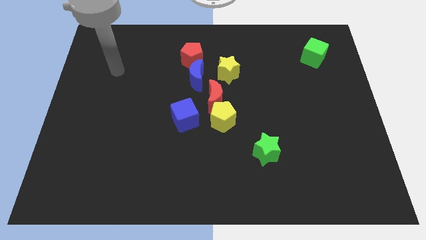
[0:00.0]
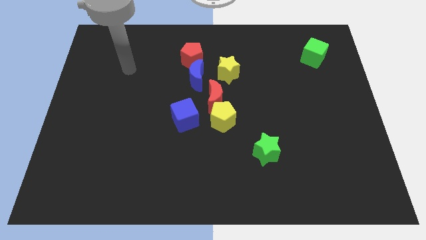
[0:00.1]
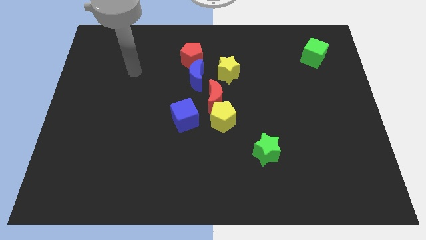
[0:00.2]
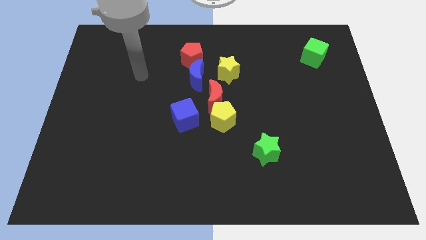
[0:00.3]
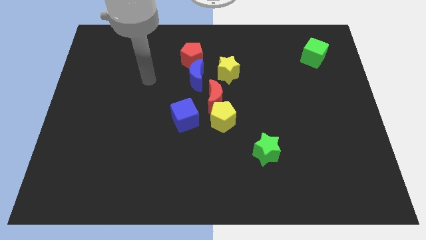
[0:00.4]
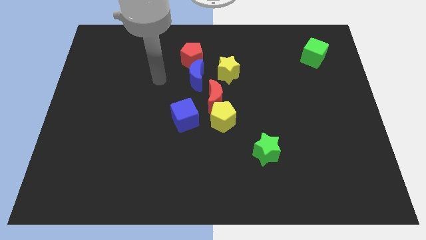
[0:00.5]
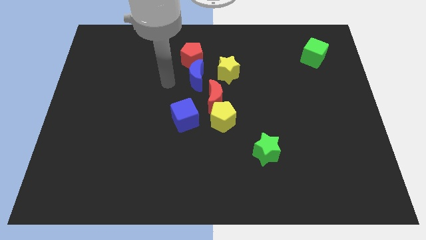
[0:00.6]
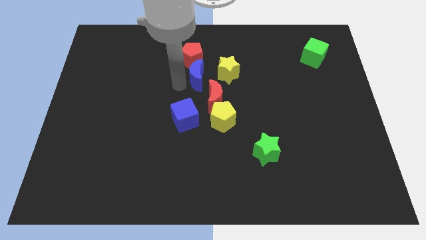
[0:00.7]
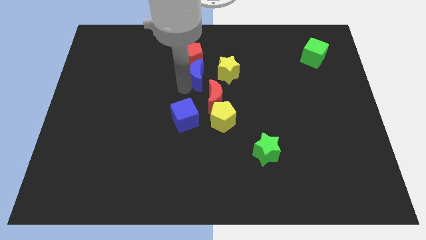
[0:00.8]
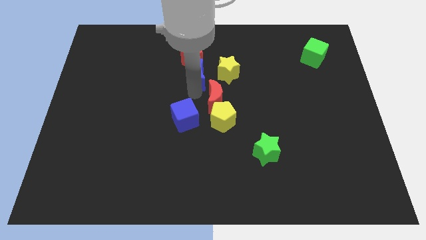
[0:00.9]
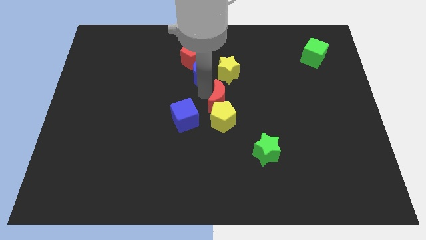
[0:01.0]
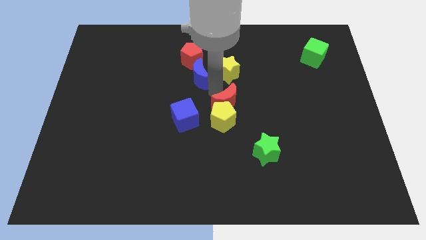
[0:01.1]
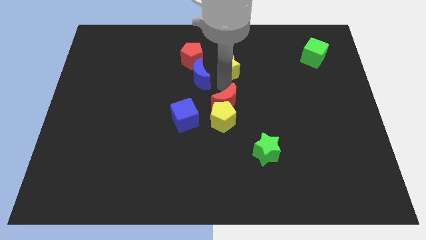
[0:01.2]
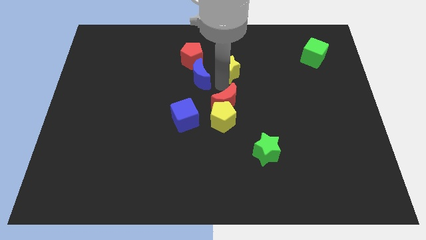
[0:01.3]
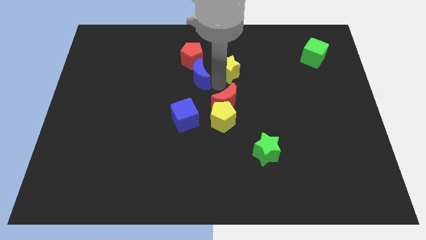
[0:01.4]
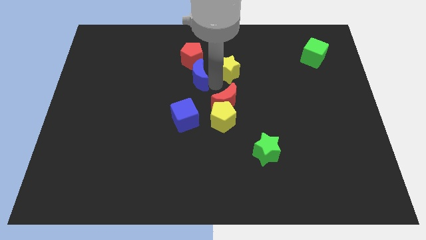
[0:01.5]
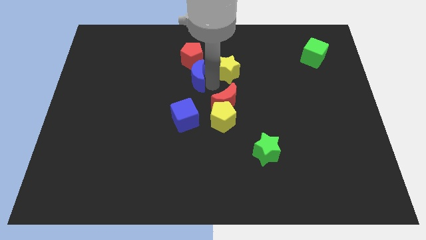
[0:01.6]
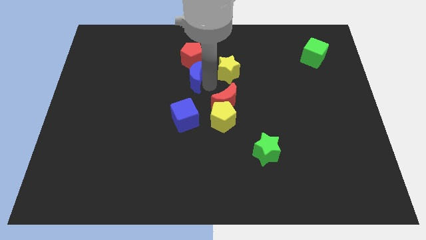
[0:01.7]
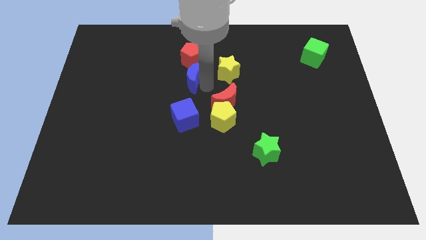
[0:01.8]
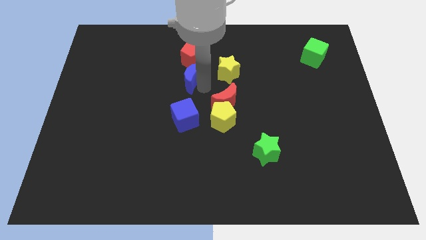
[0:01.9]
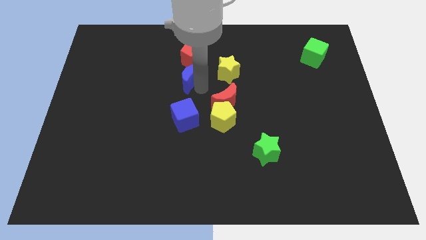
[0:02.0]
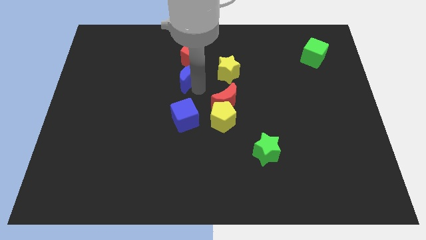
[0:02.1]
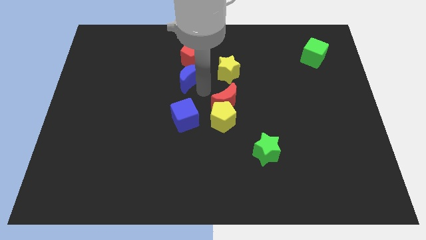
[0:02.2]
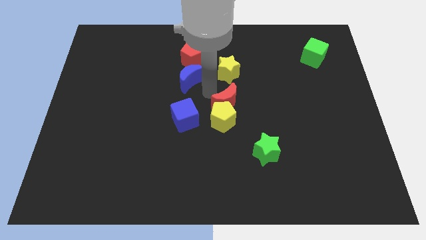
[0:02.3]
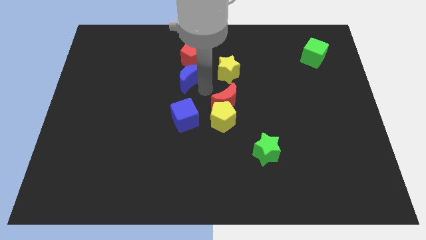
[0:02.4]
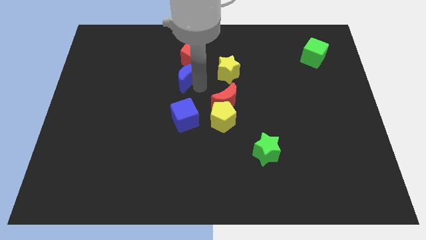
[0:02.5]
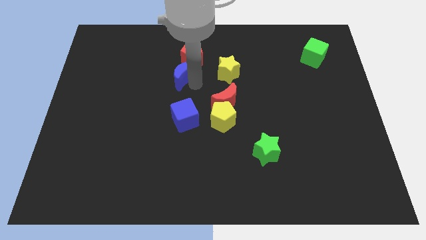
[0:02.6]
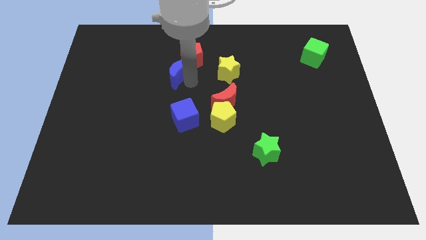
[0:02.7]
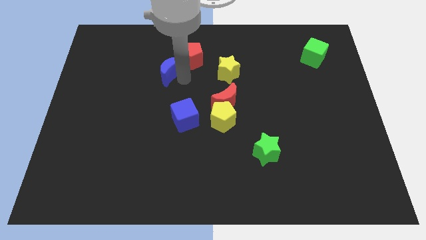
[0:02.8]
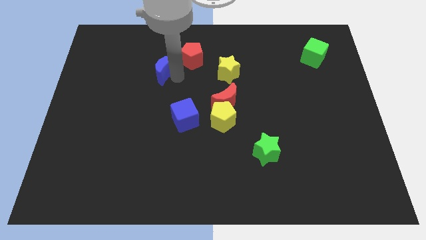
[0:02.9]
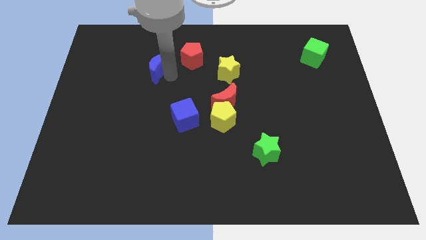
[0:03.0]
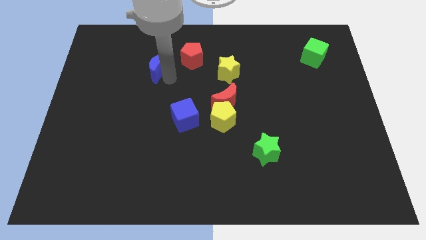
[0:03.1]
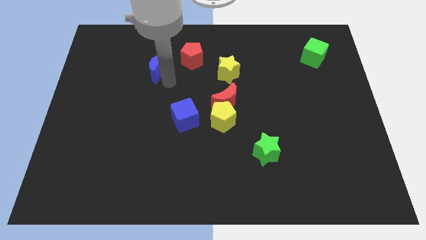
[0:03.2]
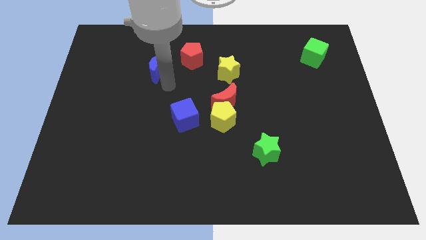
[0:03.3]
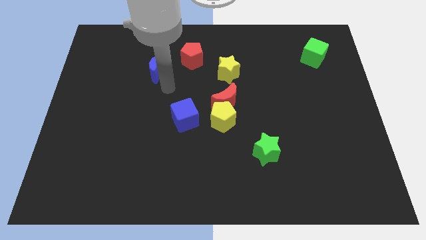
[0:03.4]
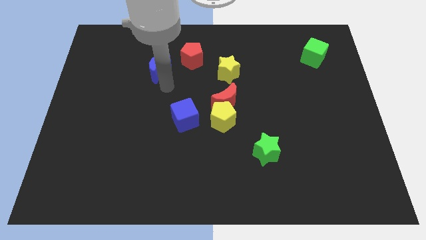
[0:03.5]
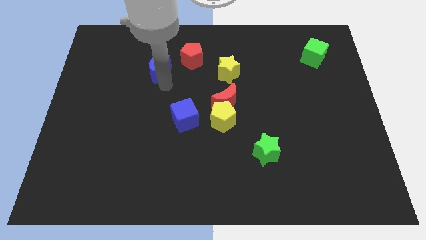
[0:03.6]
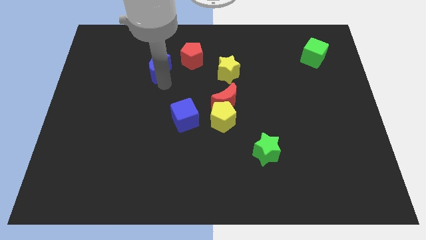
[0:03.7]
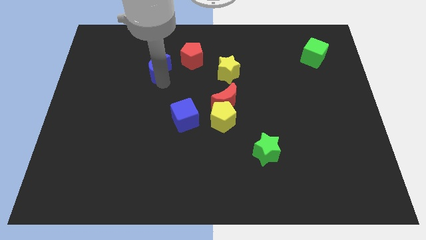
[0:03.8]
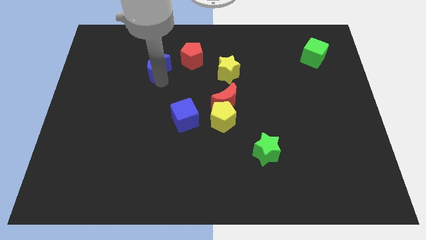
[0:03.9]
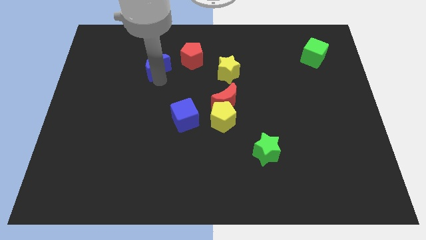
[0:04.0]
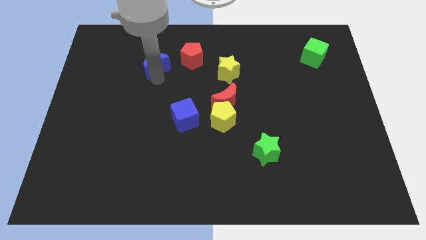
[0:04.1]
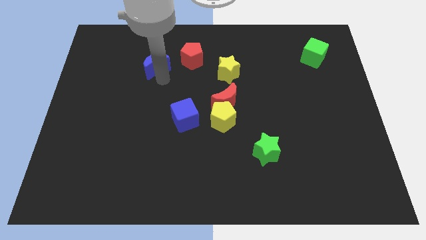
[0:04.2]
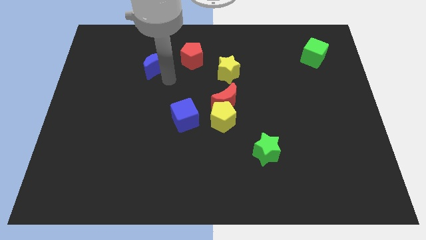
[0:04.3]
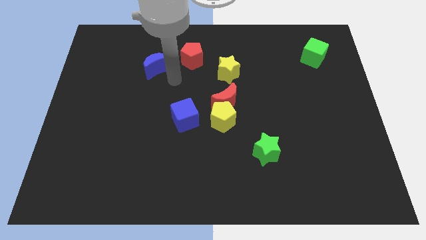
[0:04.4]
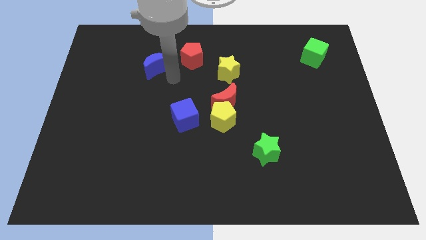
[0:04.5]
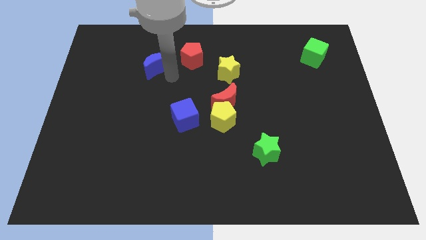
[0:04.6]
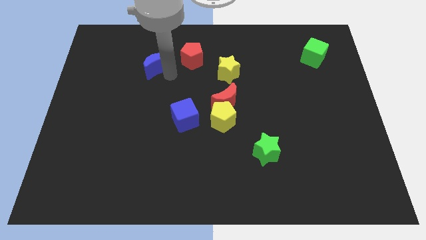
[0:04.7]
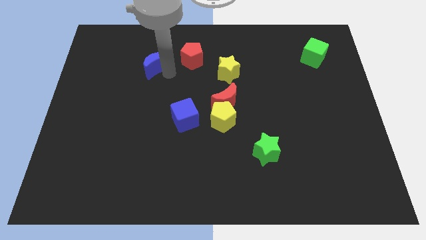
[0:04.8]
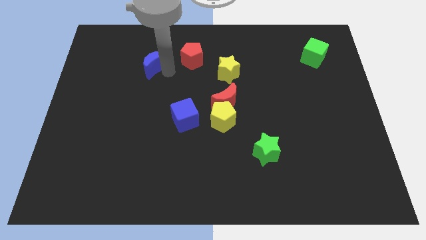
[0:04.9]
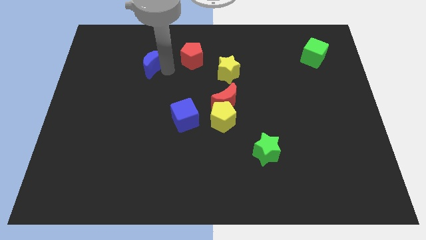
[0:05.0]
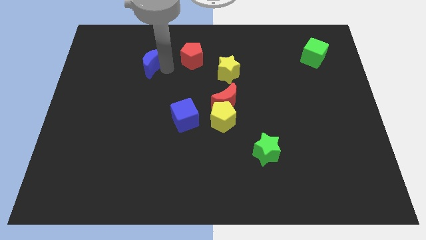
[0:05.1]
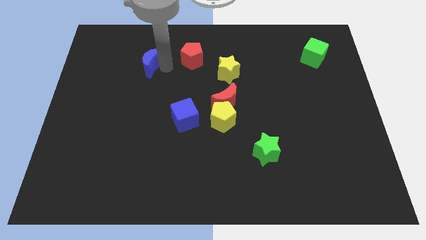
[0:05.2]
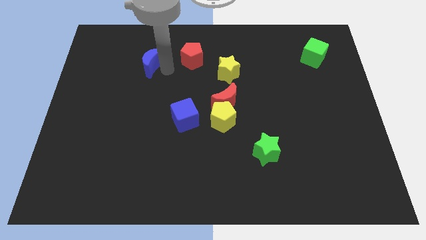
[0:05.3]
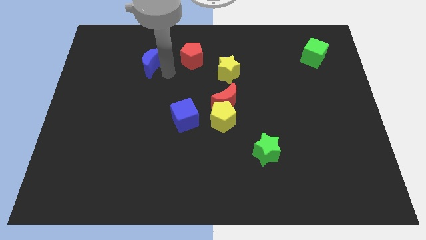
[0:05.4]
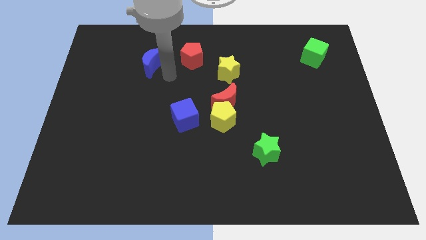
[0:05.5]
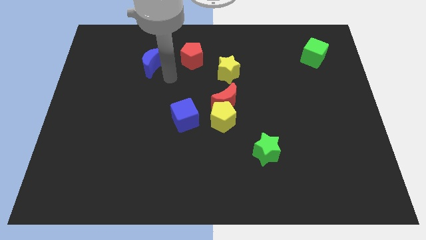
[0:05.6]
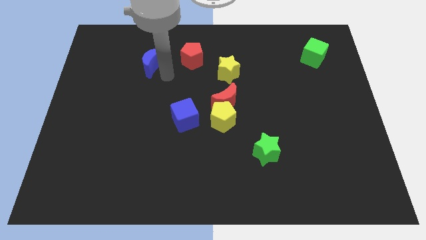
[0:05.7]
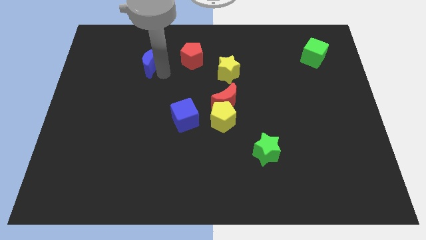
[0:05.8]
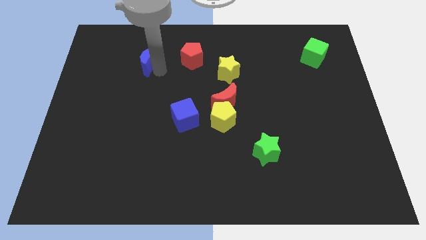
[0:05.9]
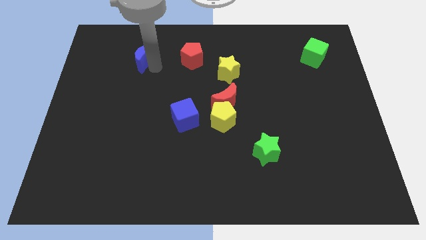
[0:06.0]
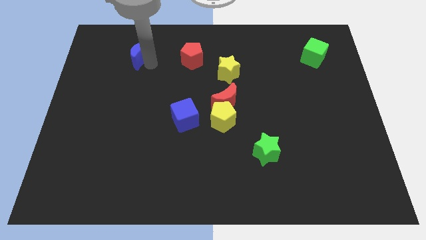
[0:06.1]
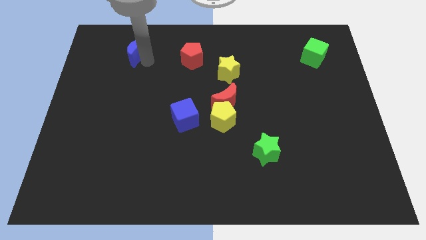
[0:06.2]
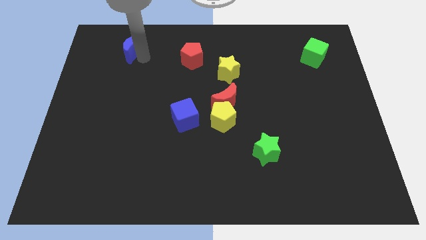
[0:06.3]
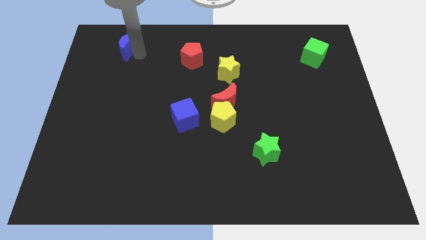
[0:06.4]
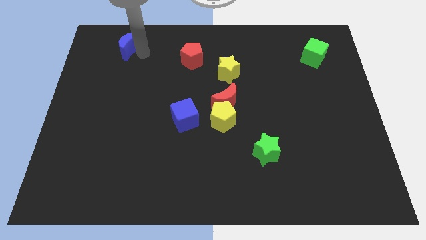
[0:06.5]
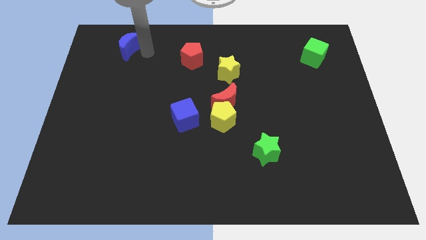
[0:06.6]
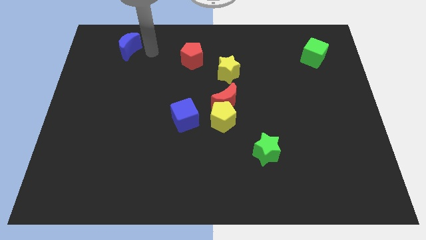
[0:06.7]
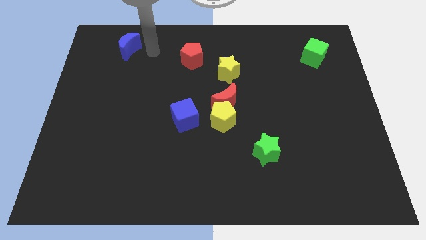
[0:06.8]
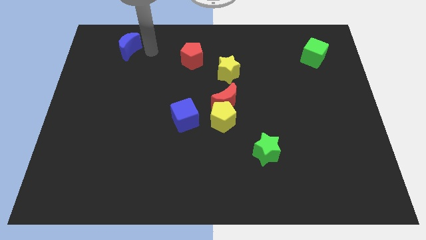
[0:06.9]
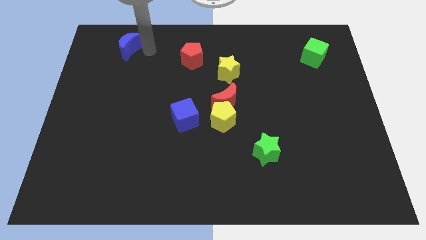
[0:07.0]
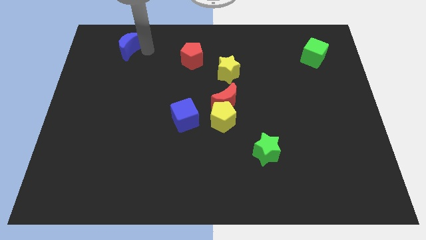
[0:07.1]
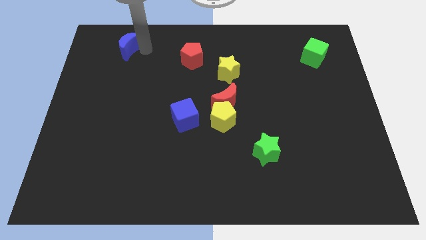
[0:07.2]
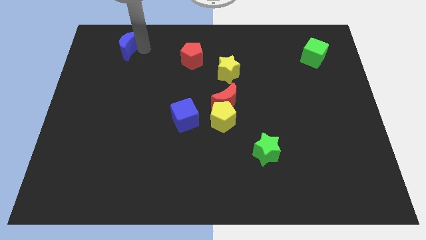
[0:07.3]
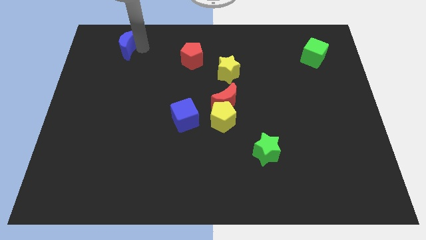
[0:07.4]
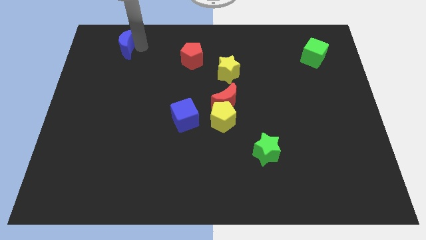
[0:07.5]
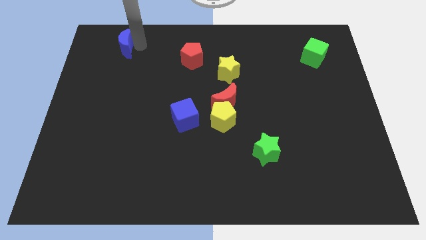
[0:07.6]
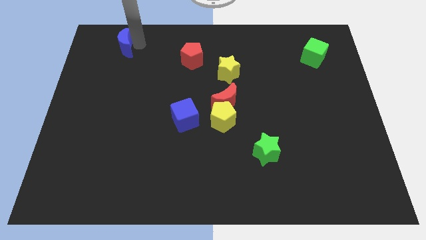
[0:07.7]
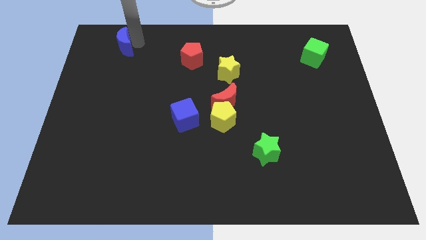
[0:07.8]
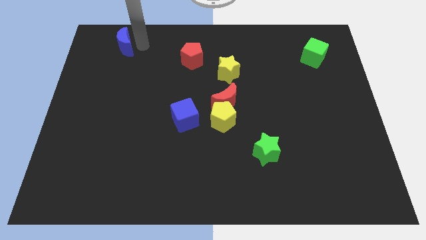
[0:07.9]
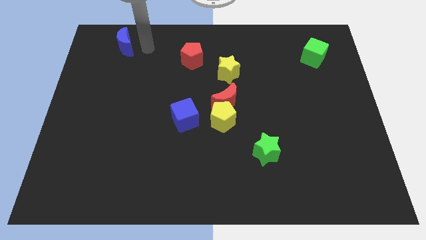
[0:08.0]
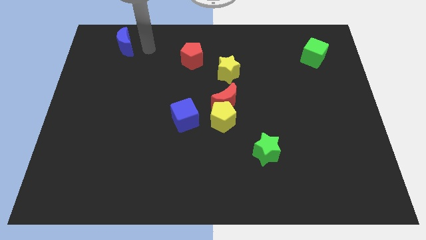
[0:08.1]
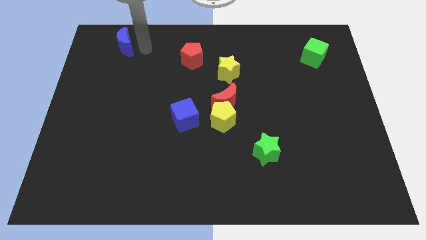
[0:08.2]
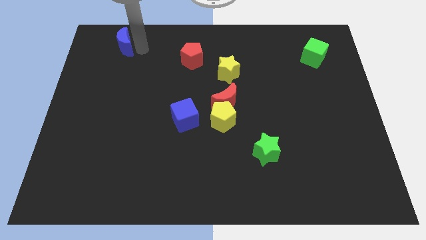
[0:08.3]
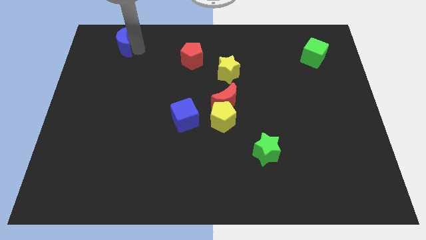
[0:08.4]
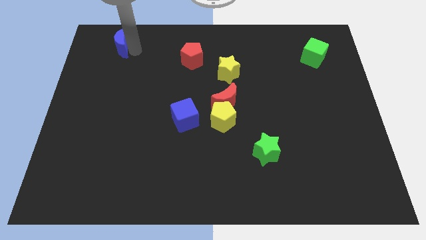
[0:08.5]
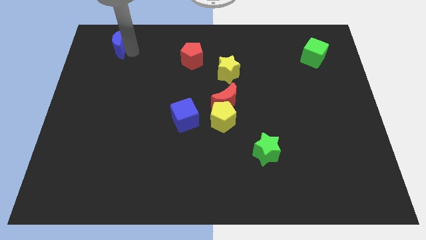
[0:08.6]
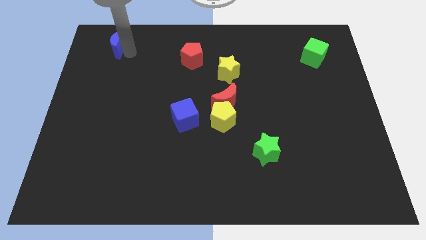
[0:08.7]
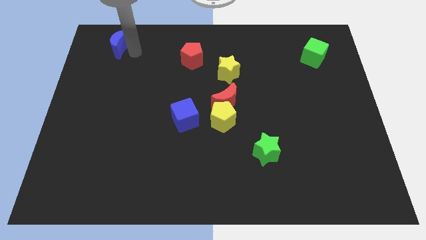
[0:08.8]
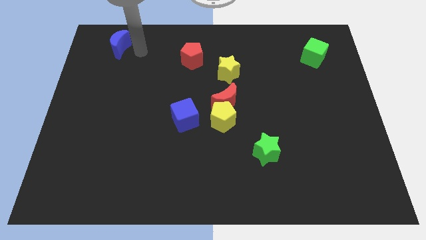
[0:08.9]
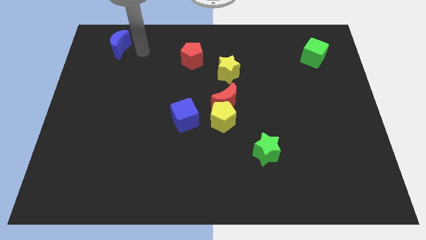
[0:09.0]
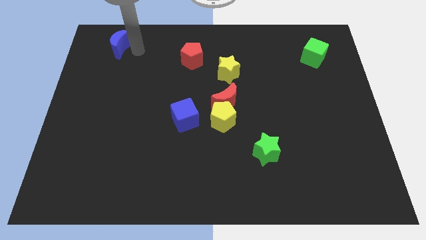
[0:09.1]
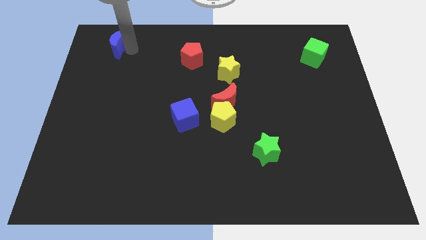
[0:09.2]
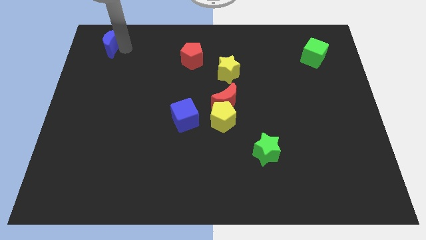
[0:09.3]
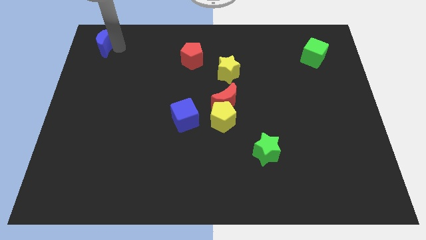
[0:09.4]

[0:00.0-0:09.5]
slide the blue moon to the top left of the board
